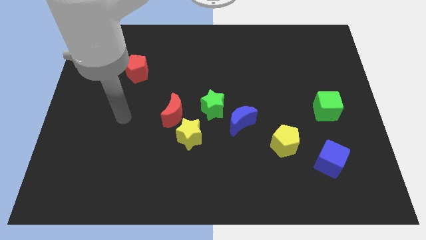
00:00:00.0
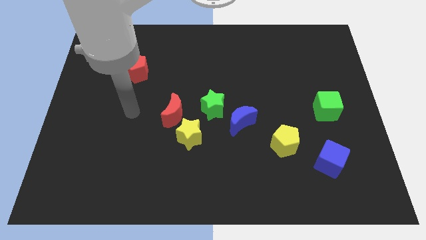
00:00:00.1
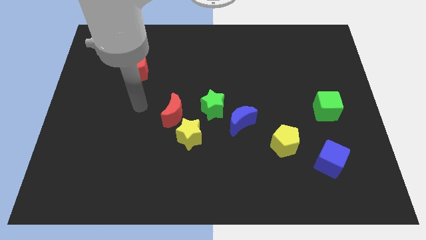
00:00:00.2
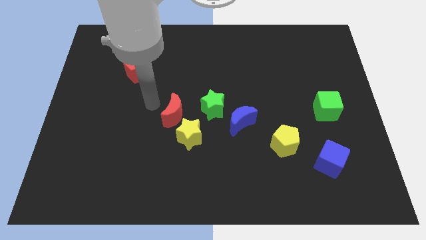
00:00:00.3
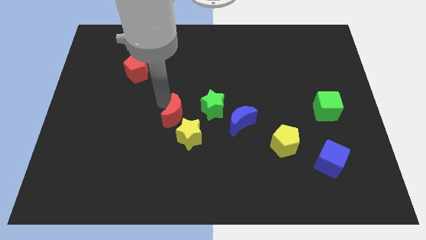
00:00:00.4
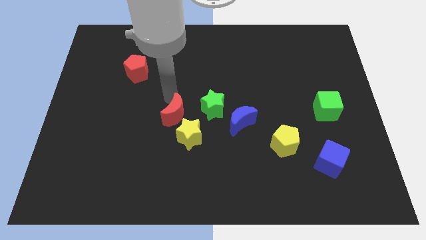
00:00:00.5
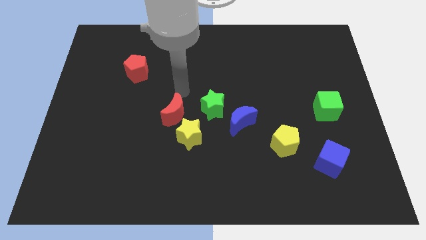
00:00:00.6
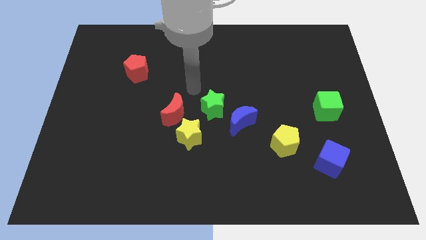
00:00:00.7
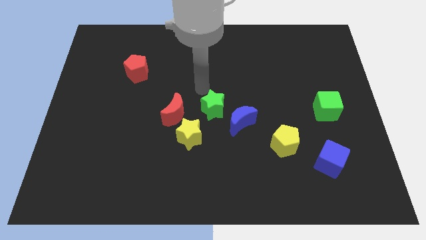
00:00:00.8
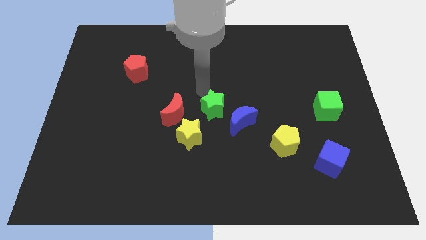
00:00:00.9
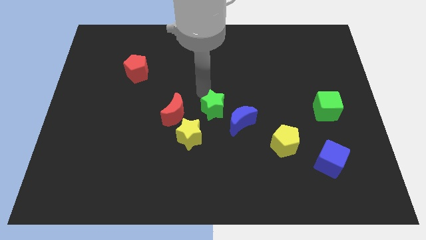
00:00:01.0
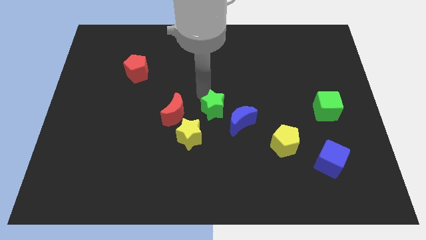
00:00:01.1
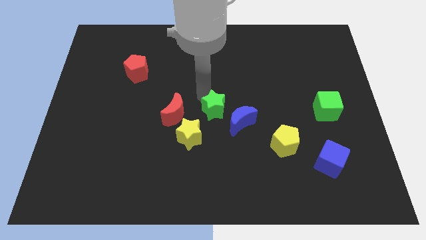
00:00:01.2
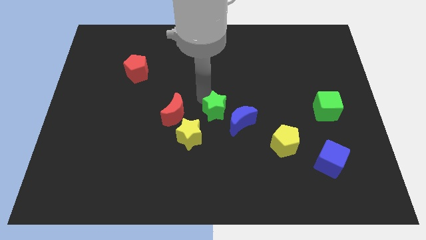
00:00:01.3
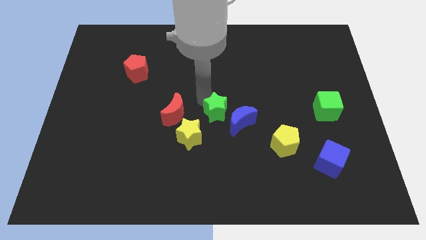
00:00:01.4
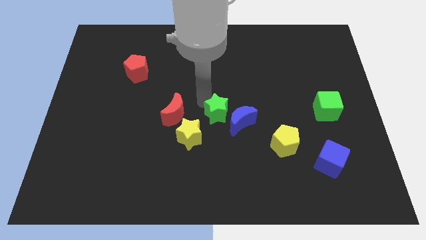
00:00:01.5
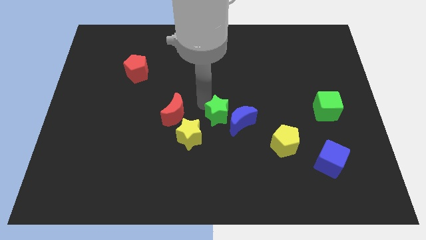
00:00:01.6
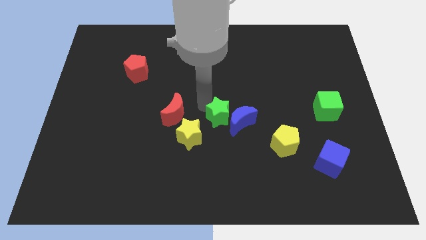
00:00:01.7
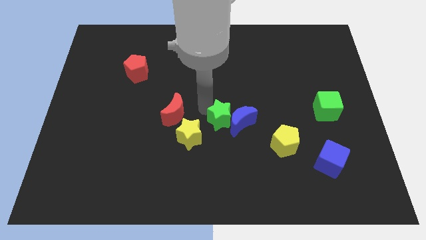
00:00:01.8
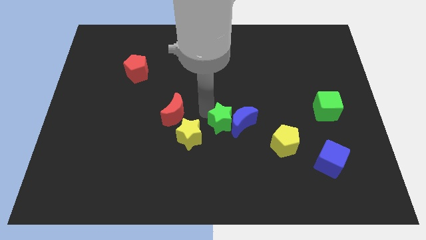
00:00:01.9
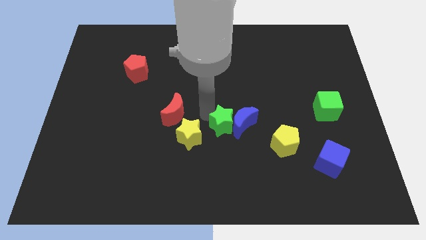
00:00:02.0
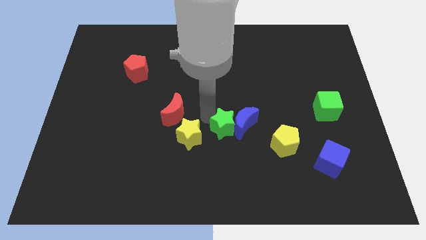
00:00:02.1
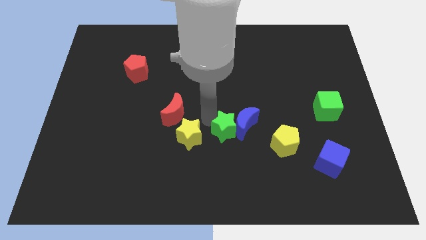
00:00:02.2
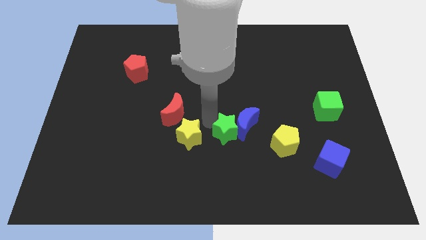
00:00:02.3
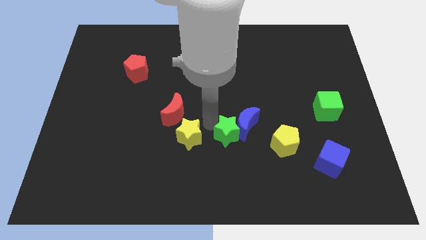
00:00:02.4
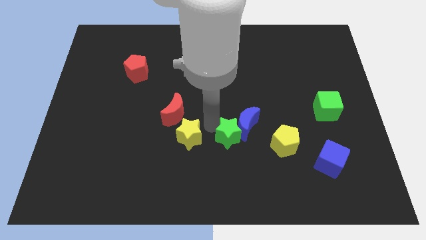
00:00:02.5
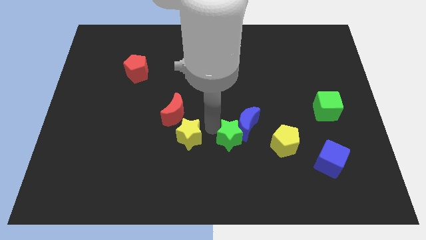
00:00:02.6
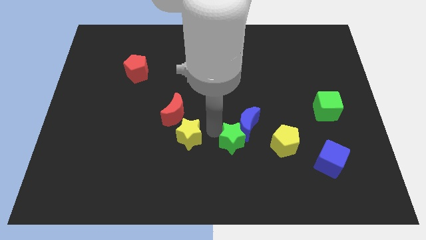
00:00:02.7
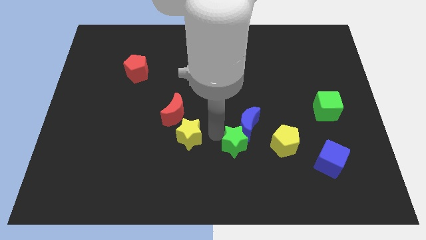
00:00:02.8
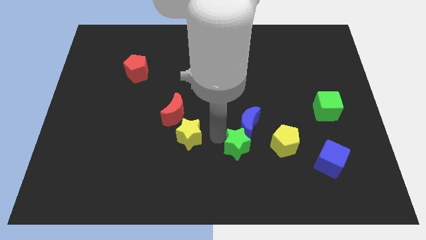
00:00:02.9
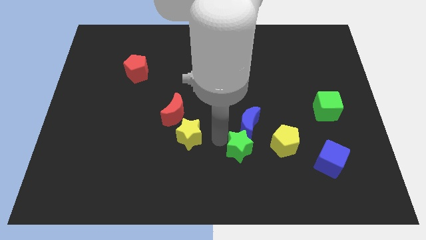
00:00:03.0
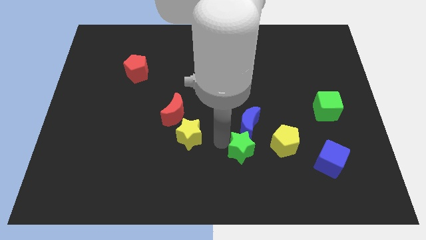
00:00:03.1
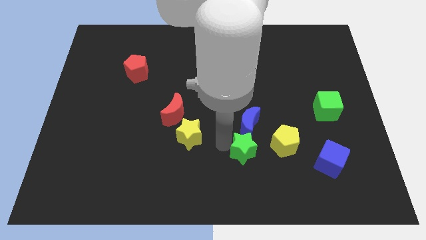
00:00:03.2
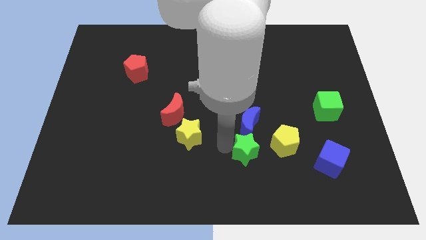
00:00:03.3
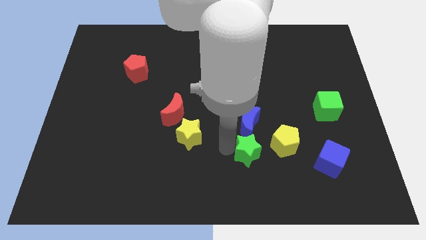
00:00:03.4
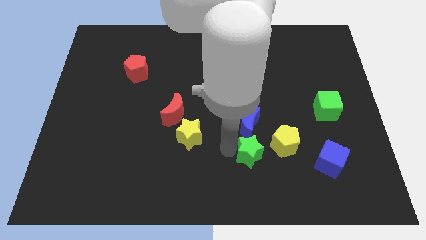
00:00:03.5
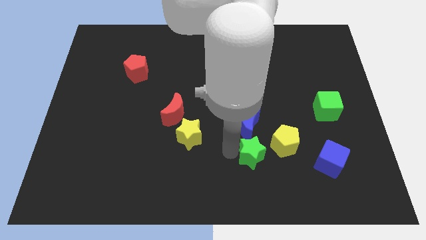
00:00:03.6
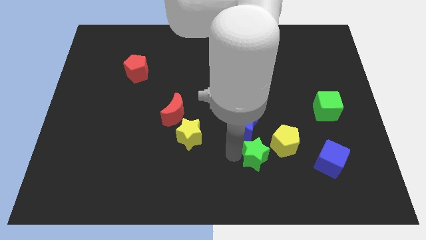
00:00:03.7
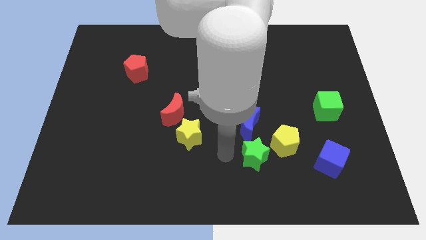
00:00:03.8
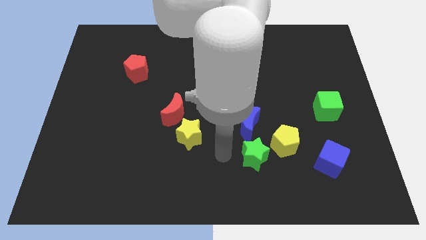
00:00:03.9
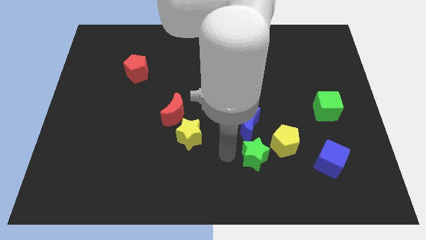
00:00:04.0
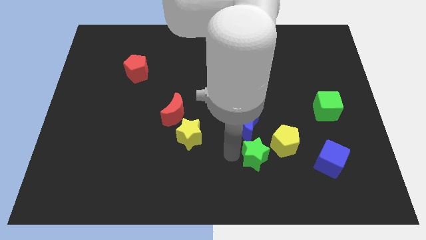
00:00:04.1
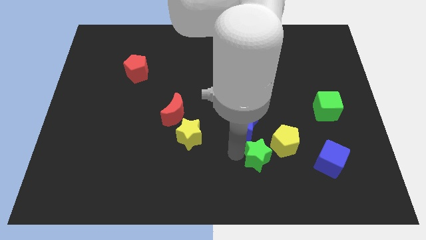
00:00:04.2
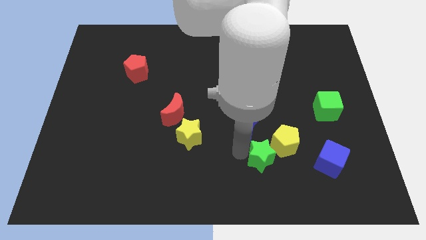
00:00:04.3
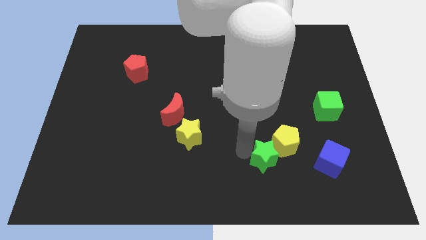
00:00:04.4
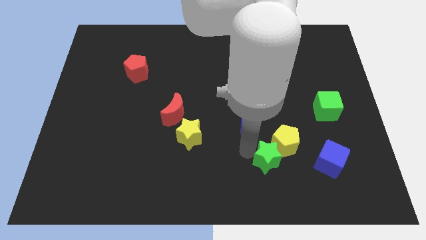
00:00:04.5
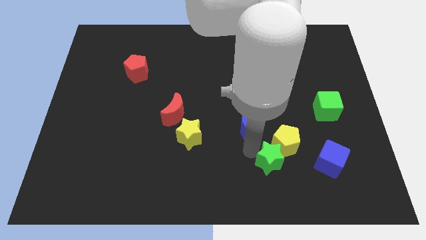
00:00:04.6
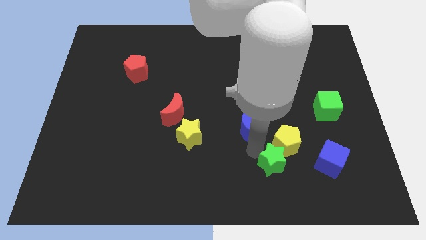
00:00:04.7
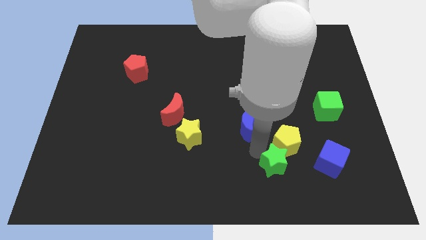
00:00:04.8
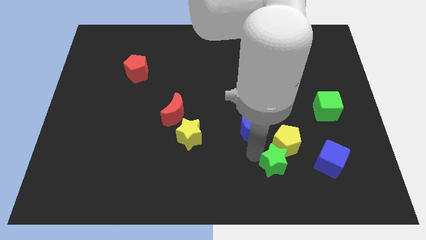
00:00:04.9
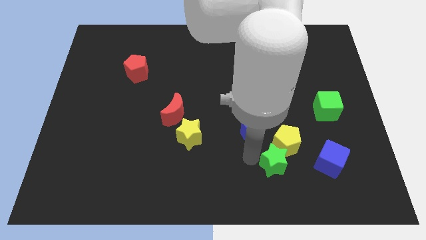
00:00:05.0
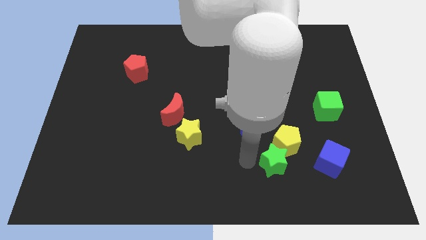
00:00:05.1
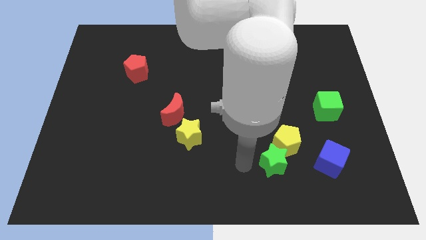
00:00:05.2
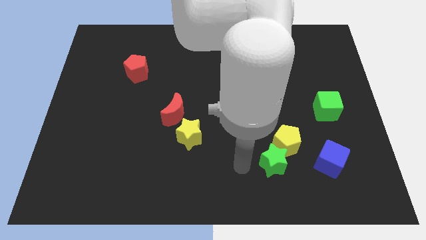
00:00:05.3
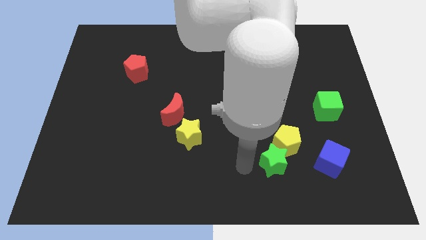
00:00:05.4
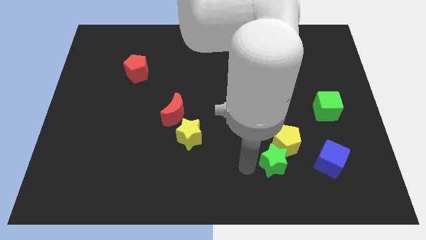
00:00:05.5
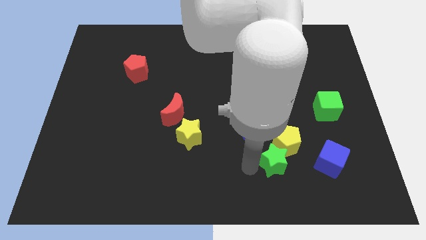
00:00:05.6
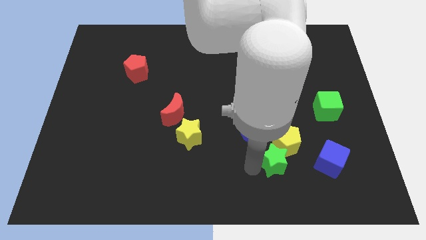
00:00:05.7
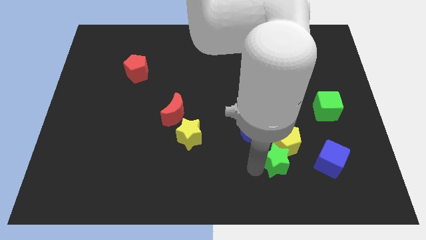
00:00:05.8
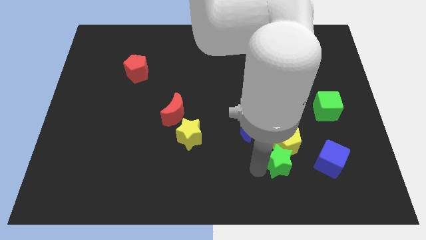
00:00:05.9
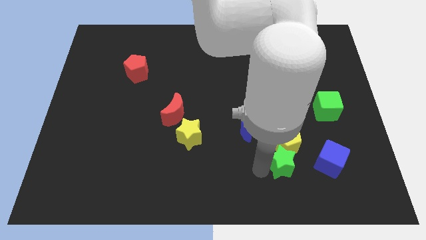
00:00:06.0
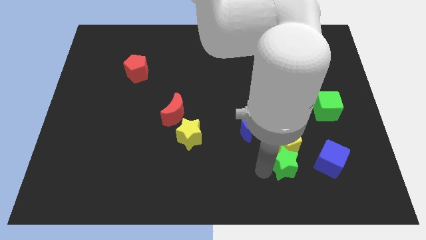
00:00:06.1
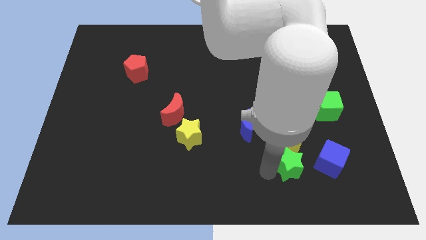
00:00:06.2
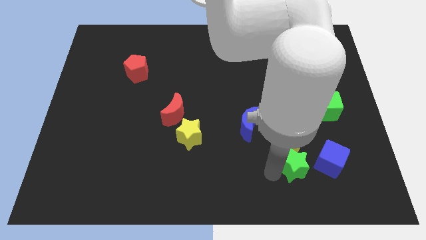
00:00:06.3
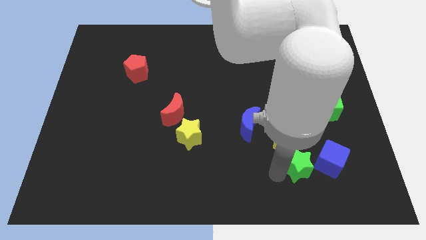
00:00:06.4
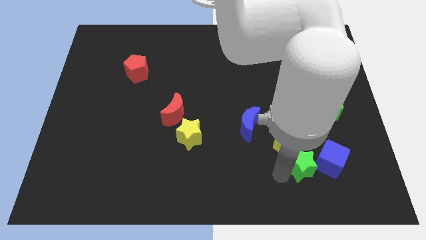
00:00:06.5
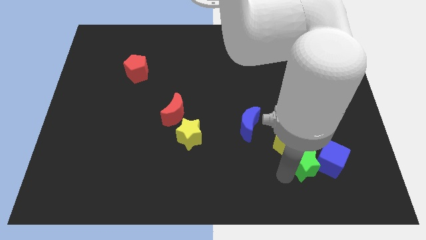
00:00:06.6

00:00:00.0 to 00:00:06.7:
put the green star close to the blue cube

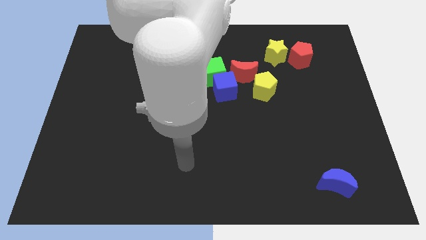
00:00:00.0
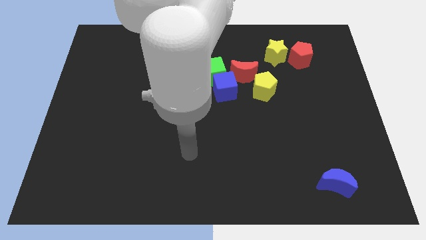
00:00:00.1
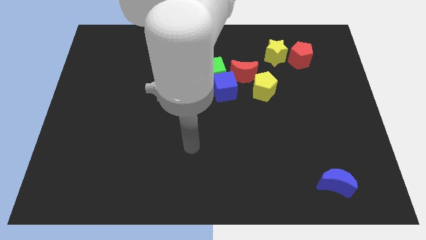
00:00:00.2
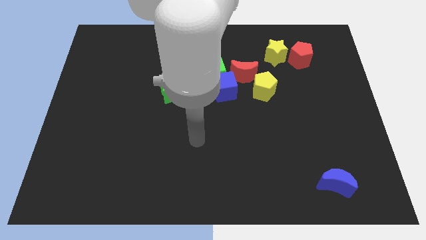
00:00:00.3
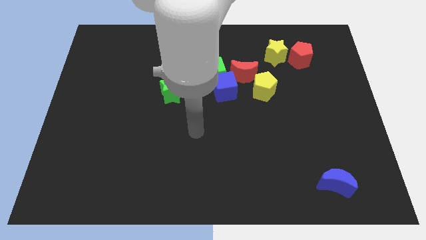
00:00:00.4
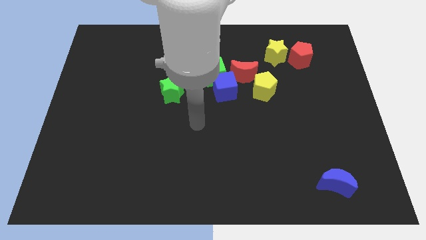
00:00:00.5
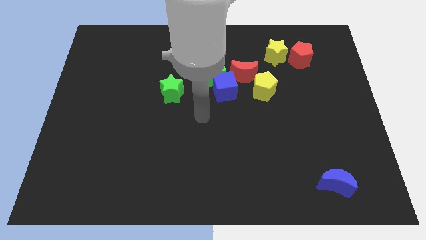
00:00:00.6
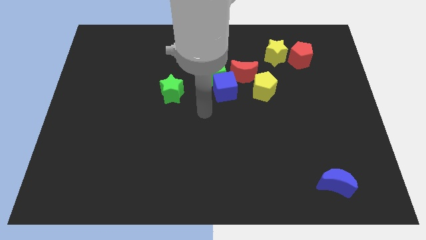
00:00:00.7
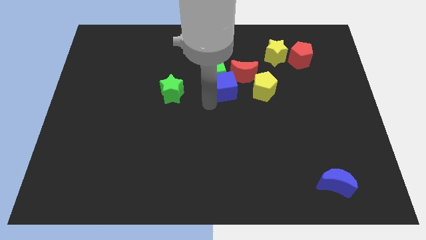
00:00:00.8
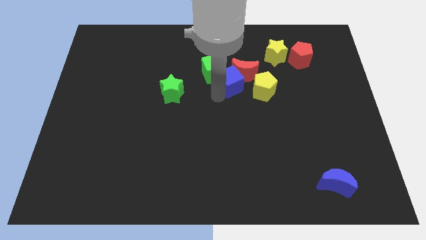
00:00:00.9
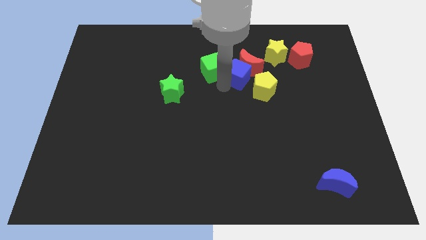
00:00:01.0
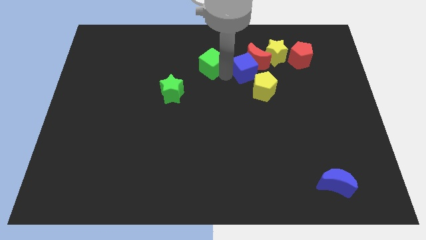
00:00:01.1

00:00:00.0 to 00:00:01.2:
slide the red moon towards the yellow star
